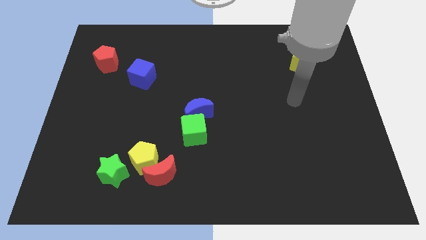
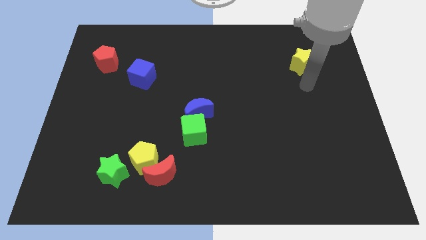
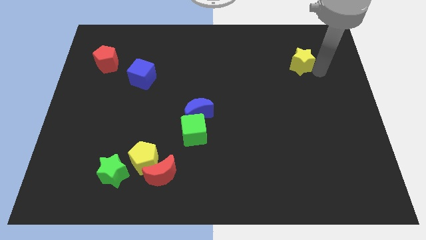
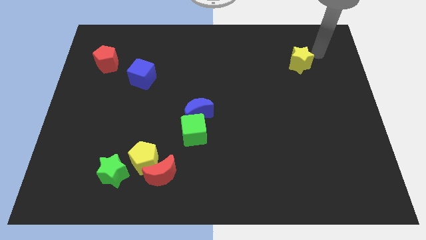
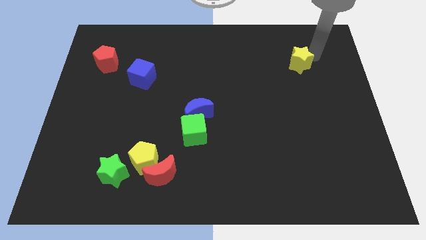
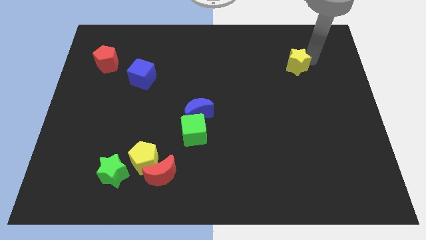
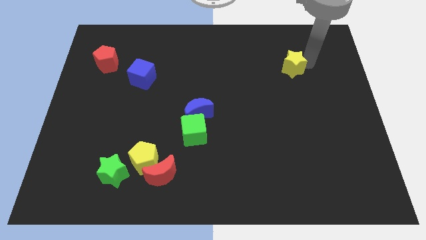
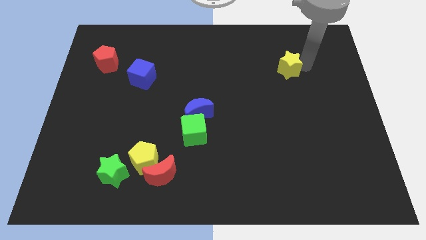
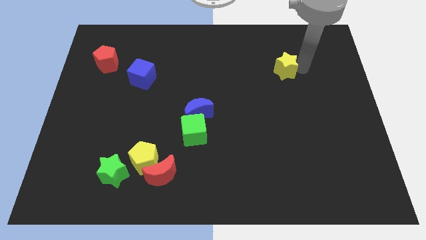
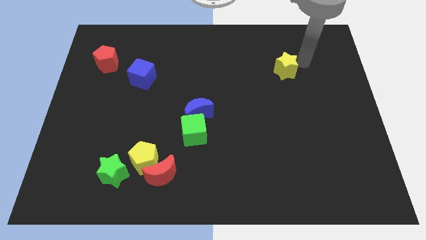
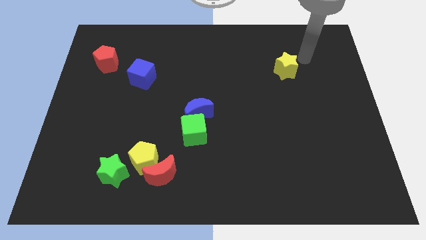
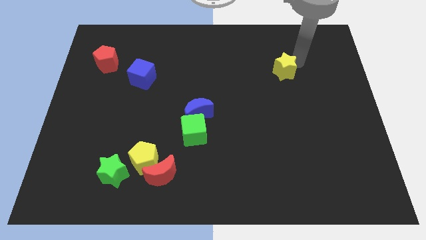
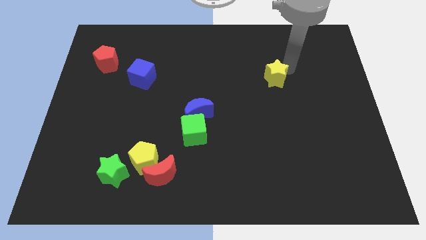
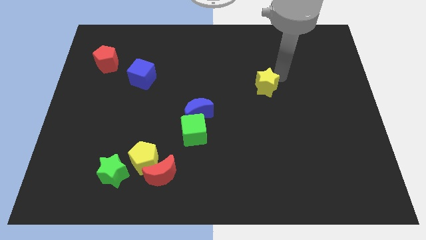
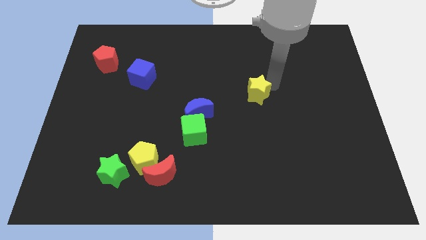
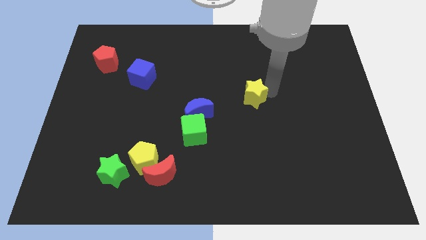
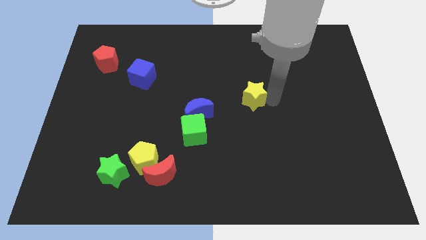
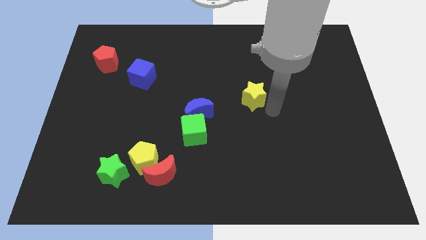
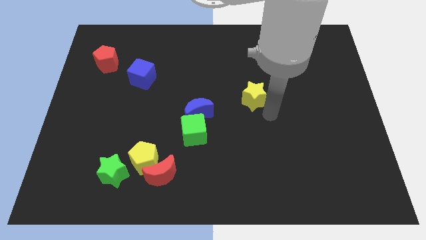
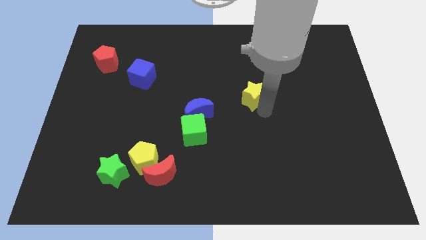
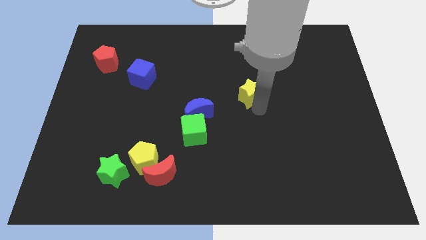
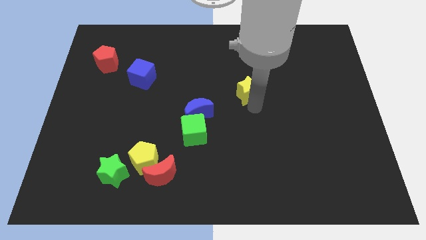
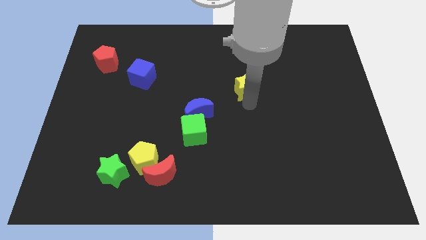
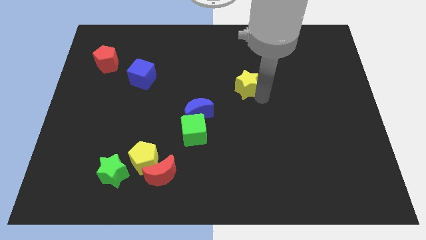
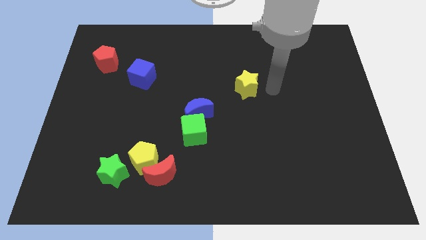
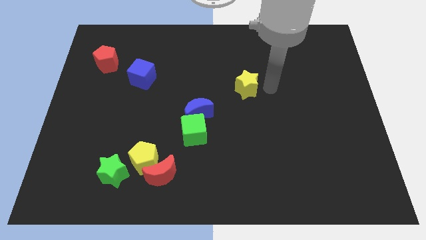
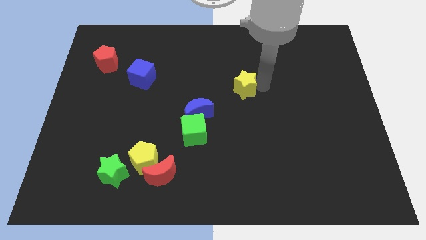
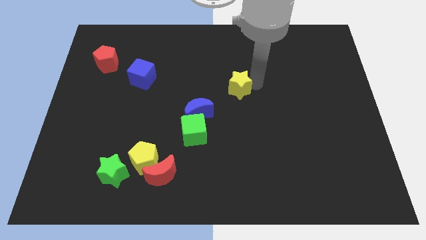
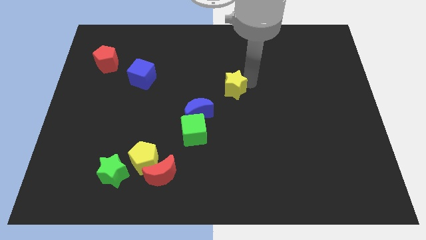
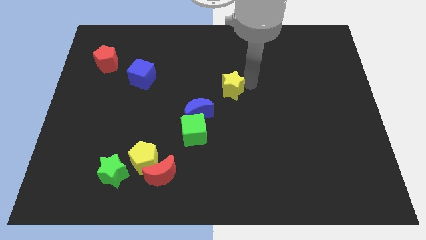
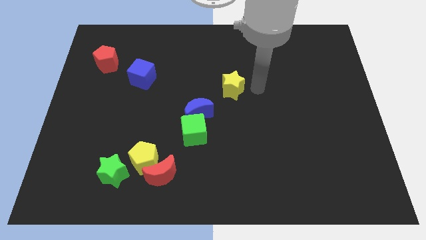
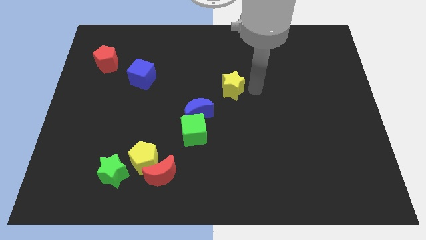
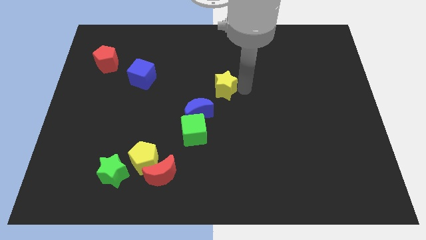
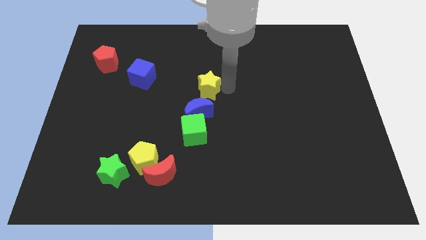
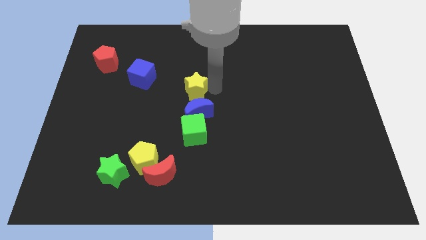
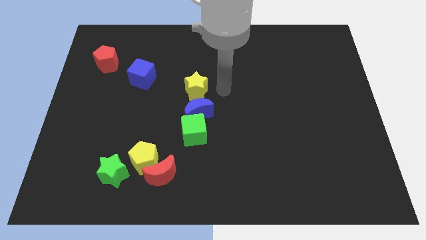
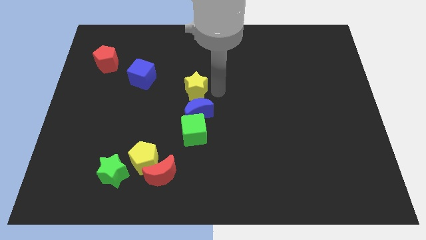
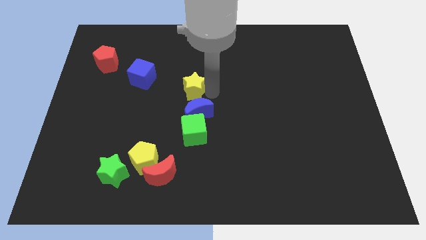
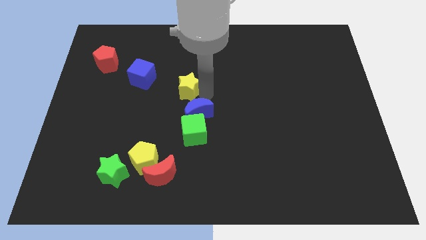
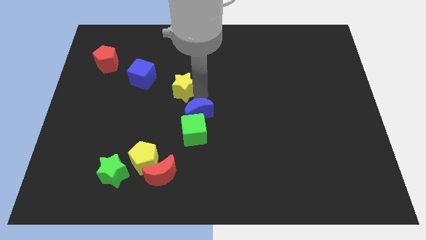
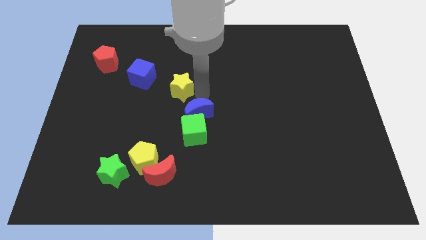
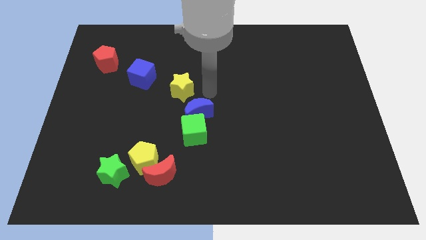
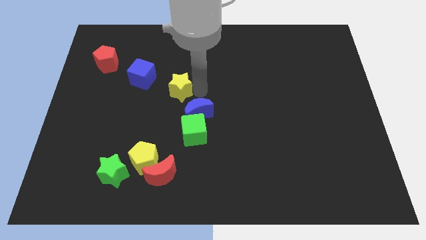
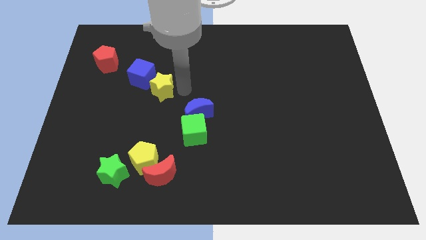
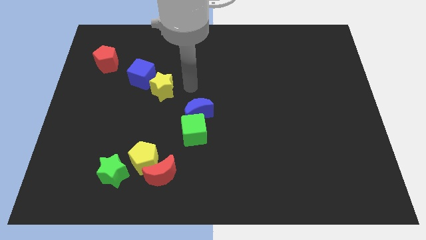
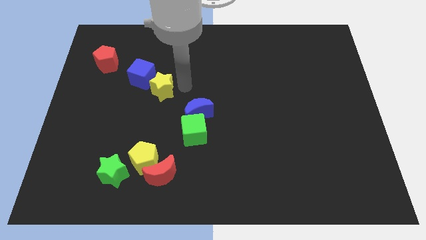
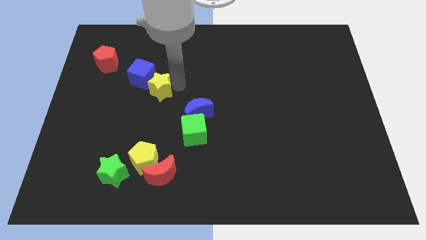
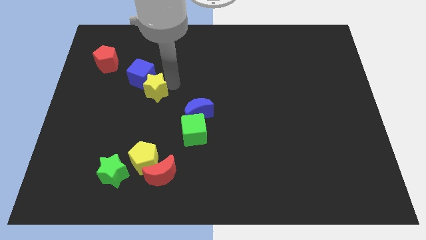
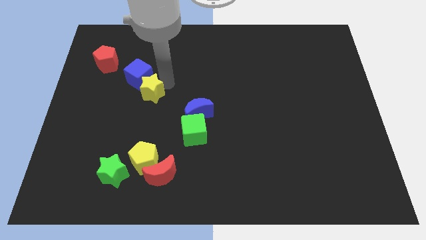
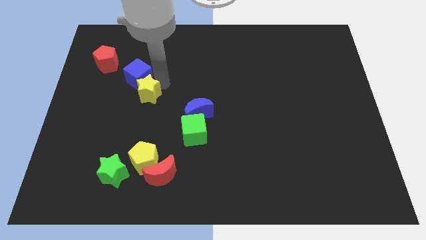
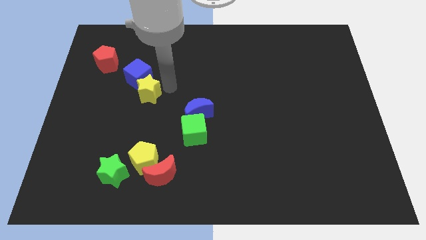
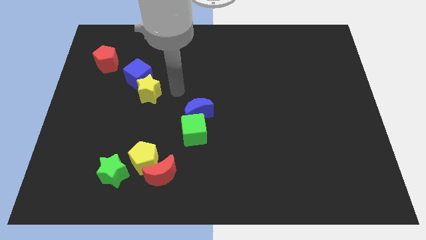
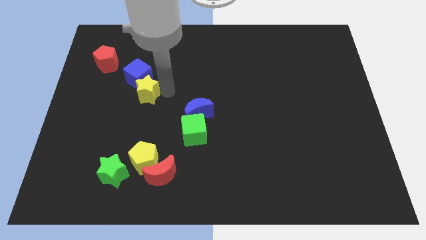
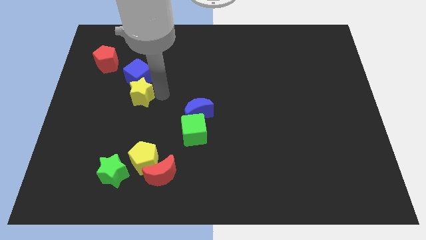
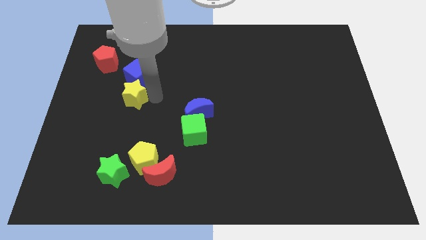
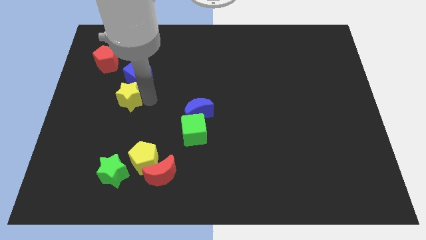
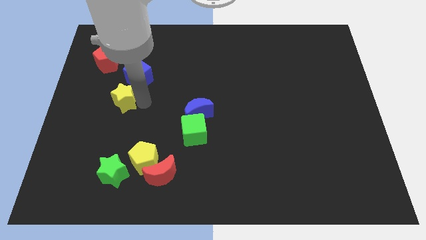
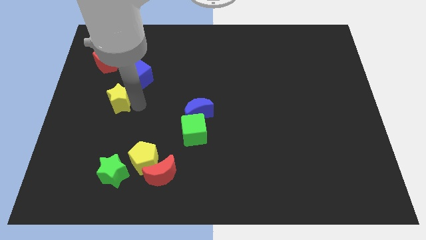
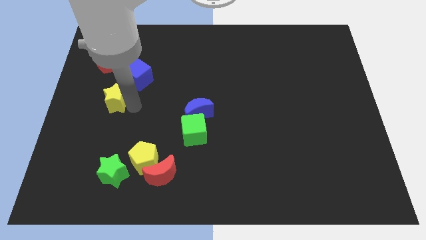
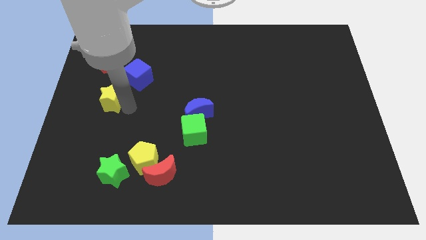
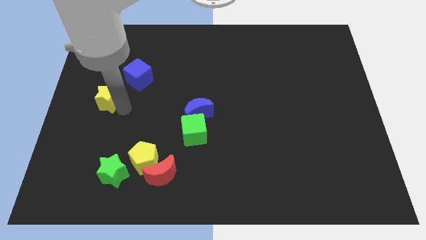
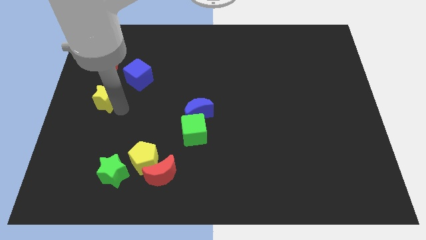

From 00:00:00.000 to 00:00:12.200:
put the yellow star to the center left
